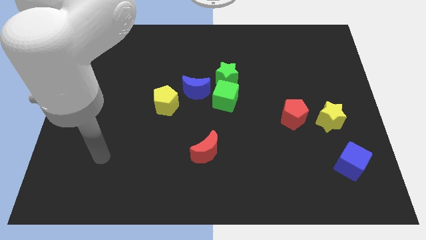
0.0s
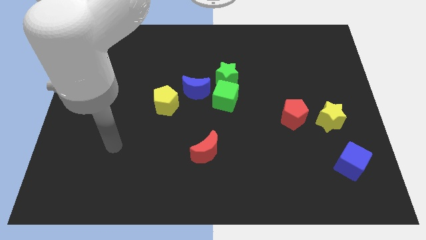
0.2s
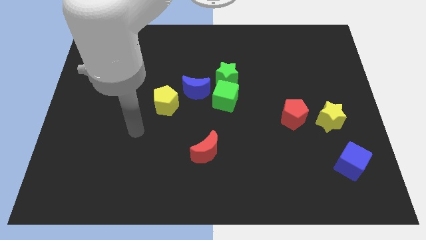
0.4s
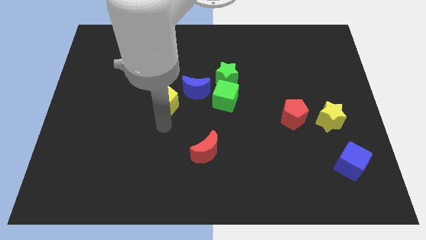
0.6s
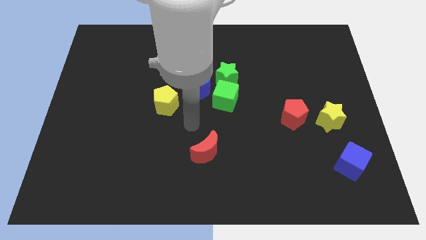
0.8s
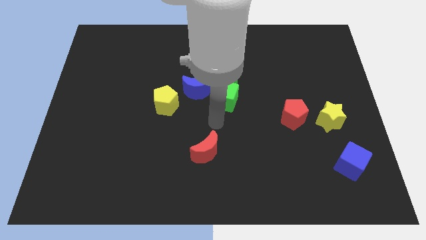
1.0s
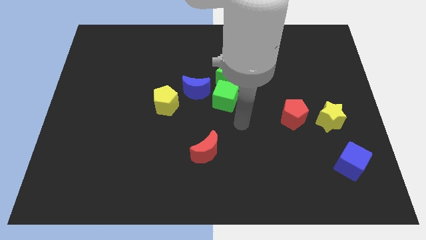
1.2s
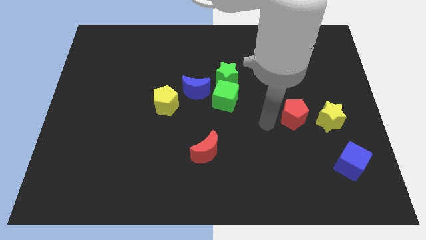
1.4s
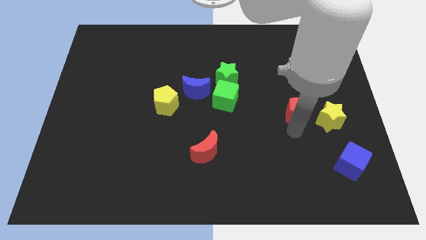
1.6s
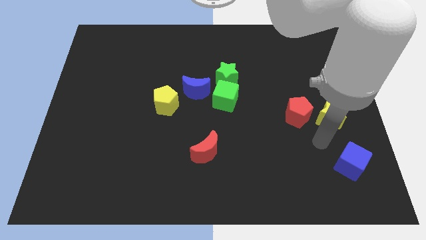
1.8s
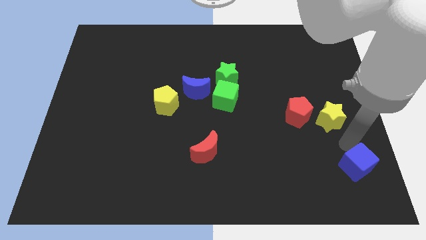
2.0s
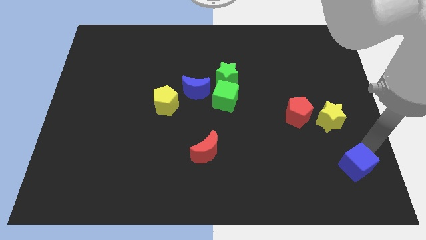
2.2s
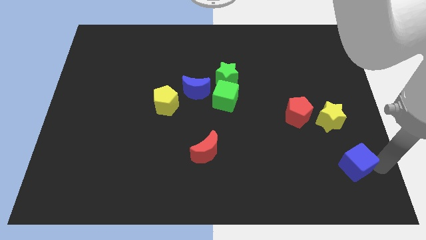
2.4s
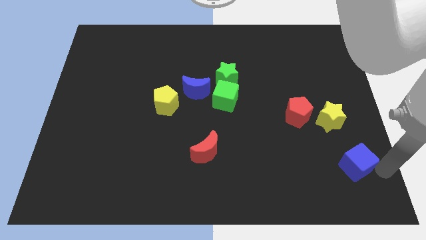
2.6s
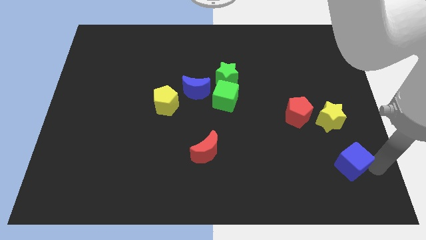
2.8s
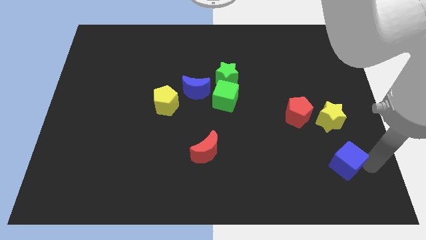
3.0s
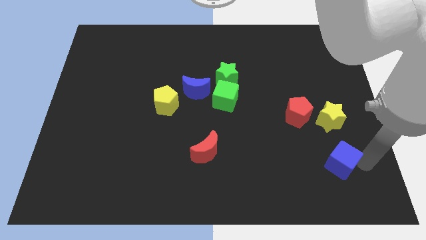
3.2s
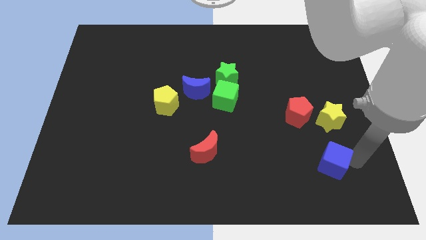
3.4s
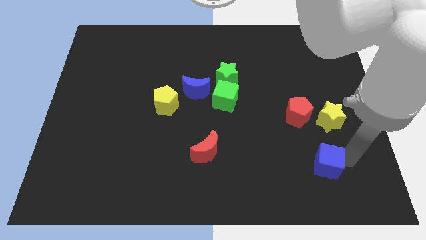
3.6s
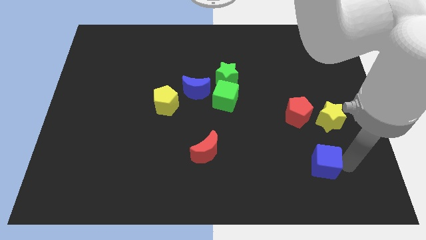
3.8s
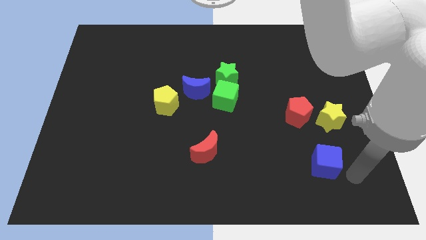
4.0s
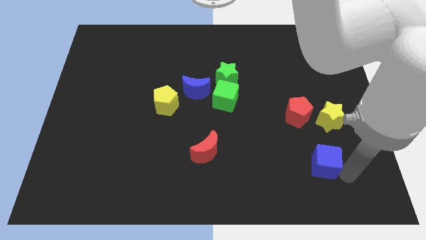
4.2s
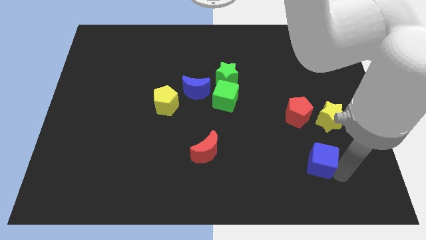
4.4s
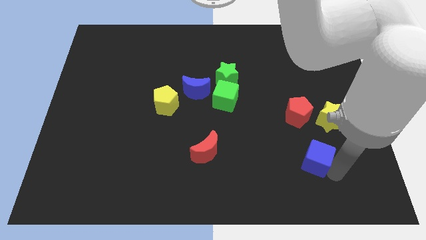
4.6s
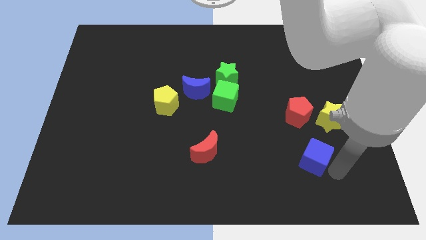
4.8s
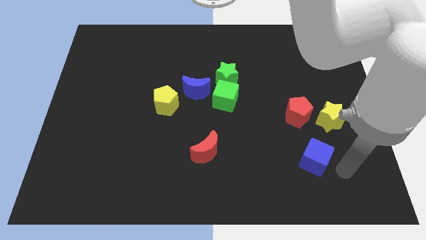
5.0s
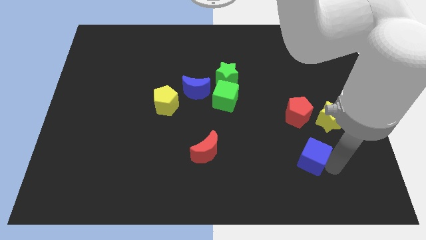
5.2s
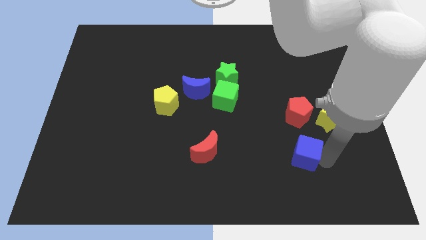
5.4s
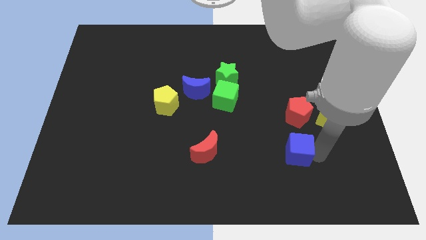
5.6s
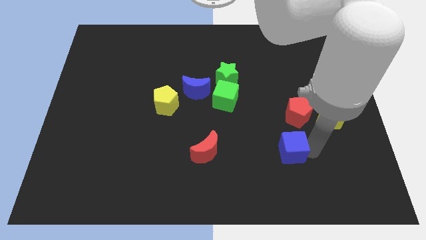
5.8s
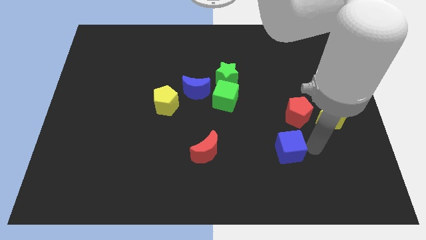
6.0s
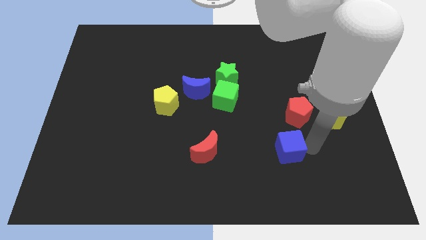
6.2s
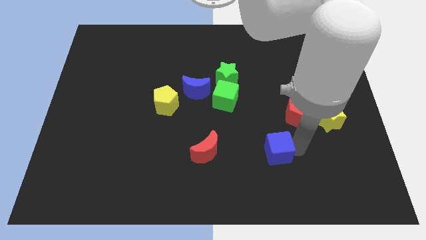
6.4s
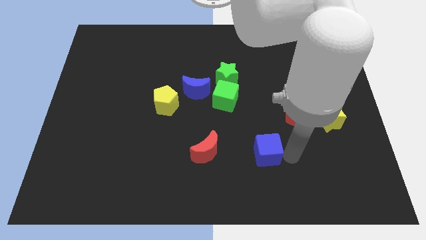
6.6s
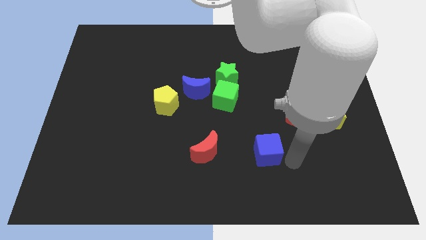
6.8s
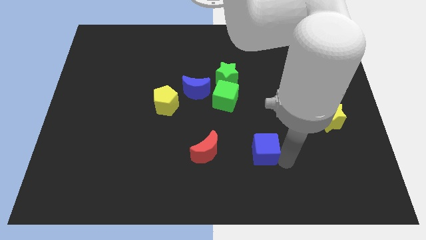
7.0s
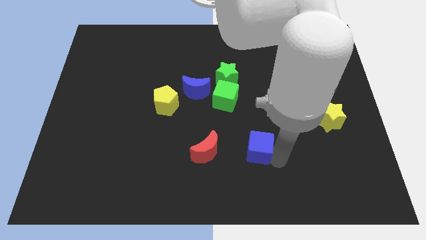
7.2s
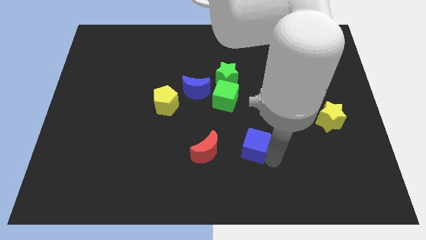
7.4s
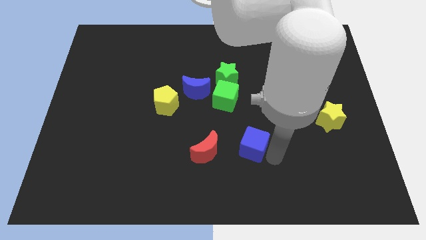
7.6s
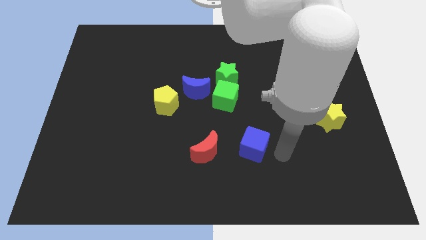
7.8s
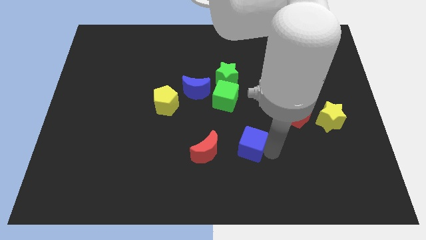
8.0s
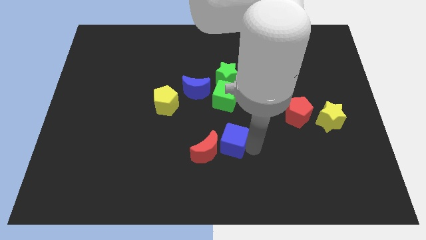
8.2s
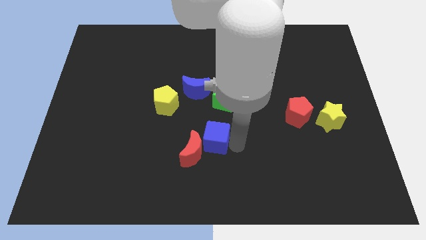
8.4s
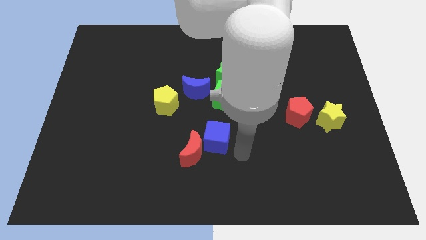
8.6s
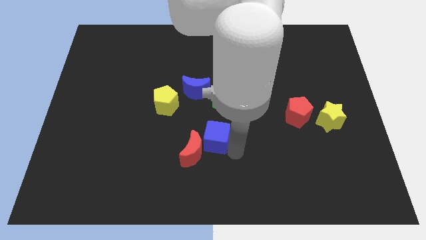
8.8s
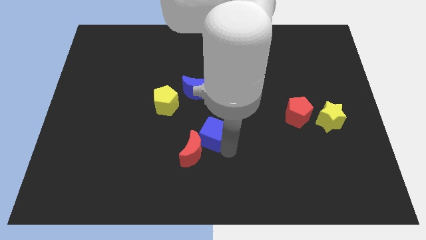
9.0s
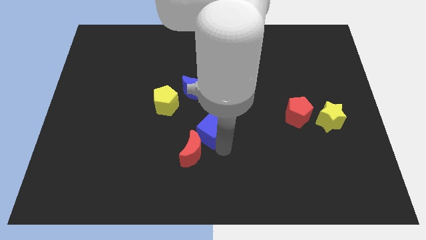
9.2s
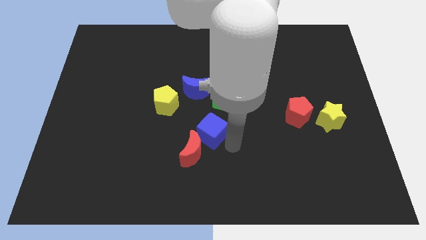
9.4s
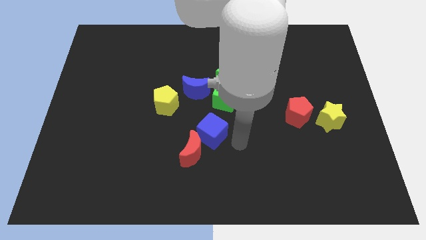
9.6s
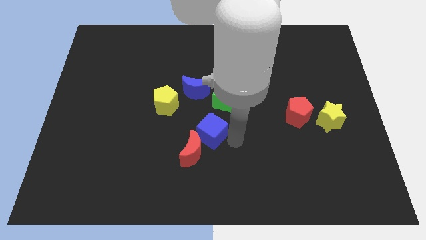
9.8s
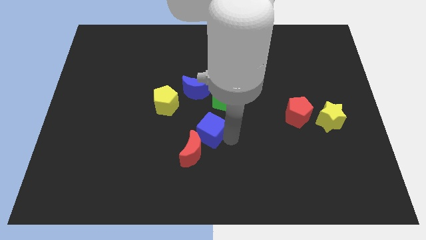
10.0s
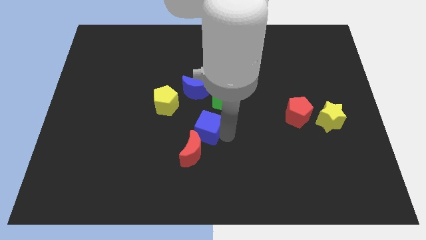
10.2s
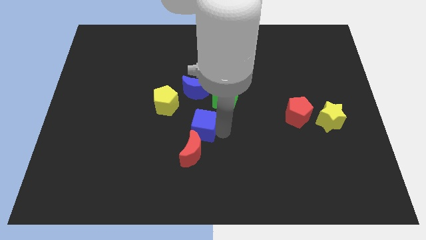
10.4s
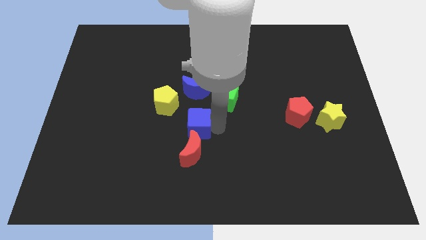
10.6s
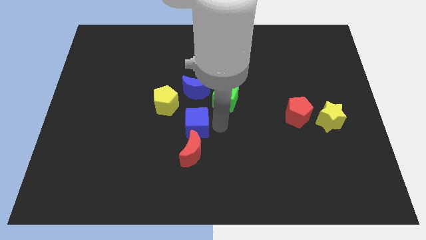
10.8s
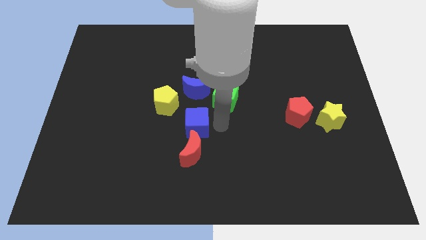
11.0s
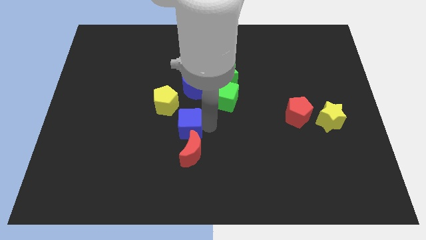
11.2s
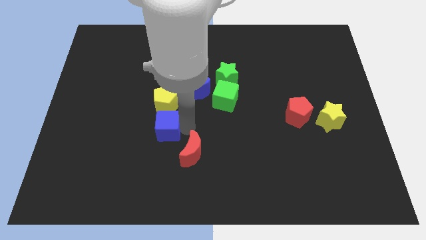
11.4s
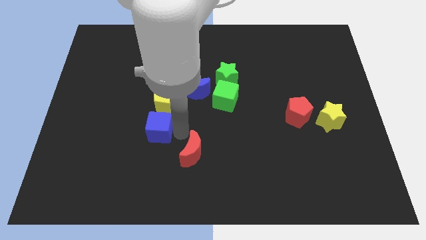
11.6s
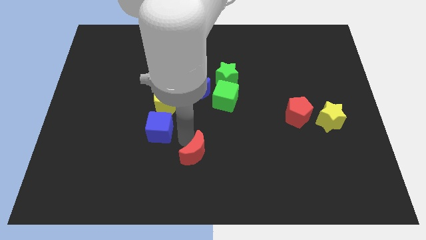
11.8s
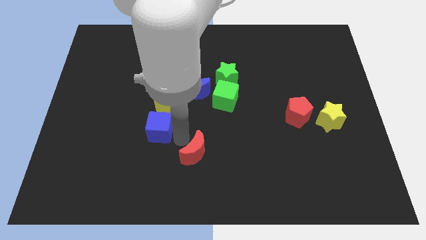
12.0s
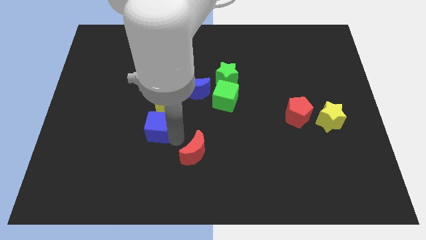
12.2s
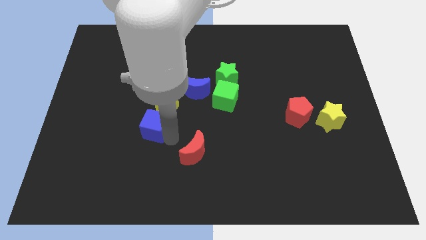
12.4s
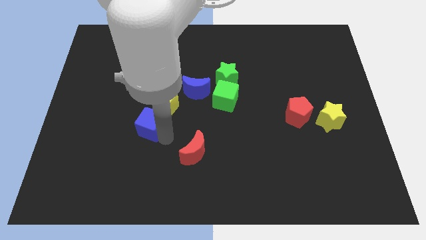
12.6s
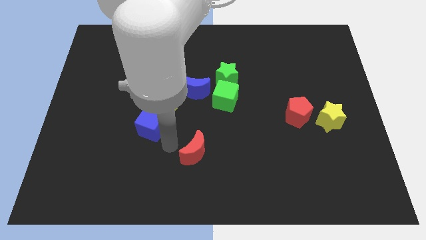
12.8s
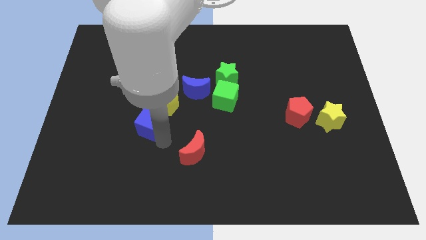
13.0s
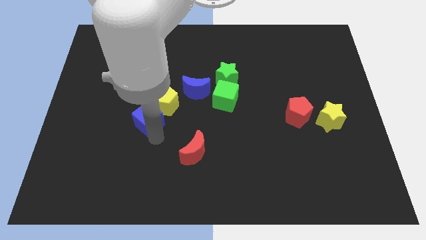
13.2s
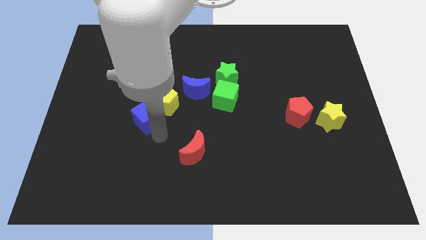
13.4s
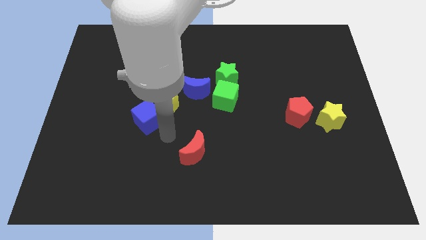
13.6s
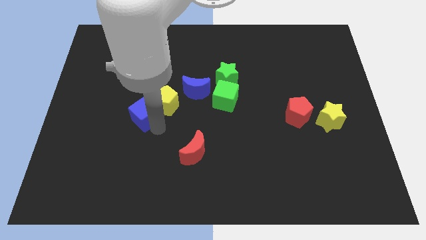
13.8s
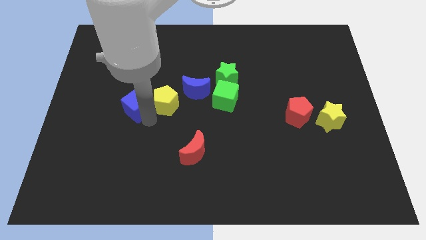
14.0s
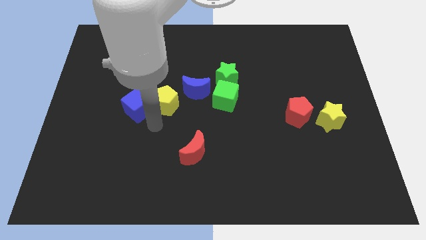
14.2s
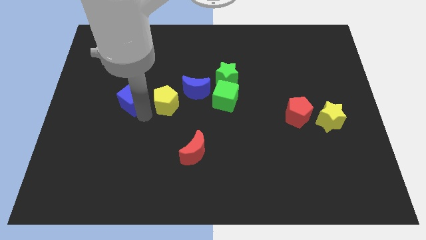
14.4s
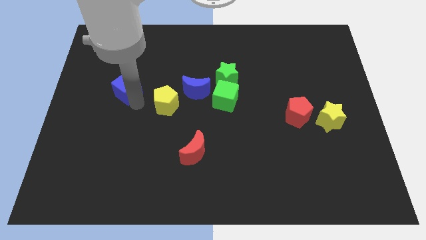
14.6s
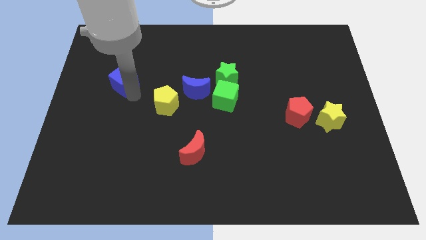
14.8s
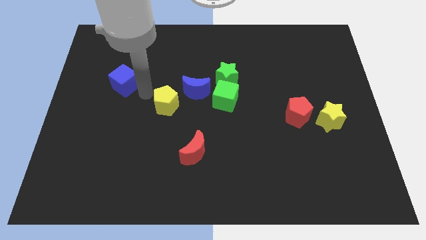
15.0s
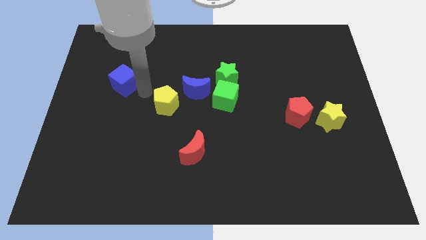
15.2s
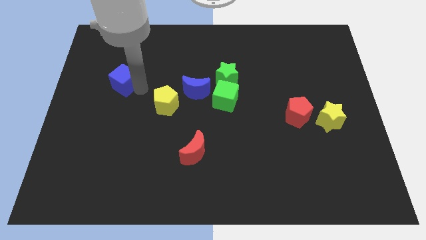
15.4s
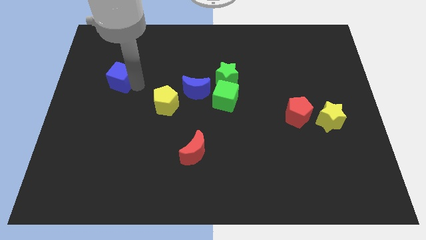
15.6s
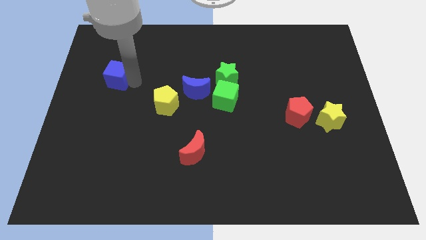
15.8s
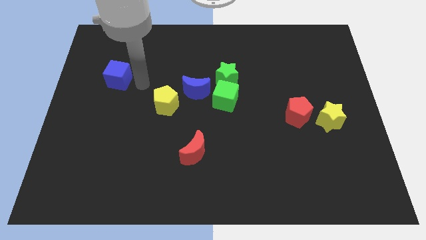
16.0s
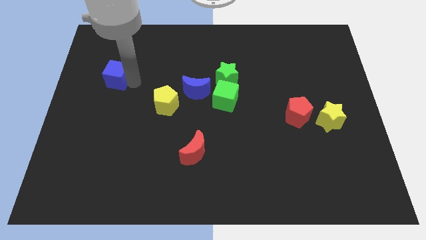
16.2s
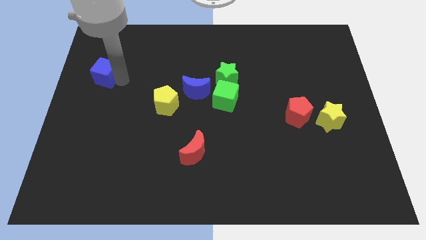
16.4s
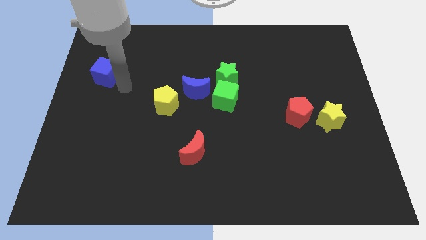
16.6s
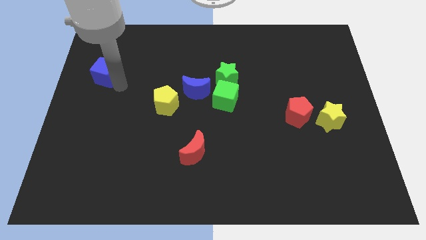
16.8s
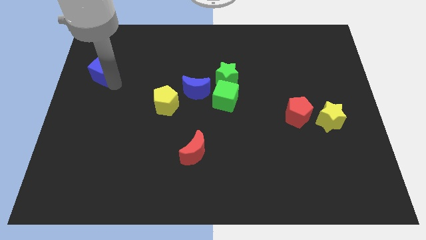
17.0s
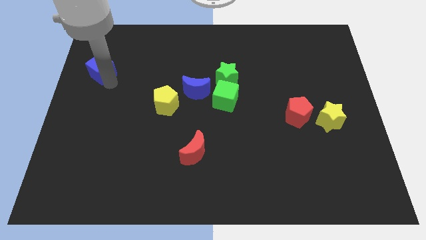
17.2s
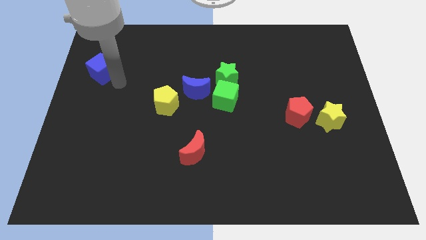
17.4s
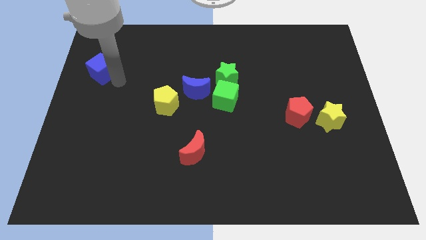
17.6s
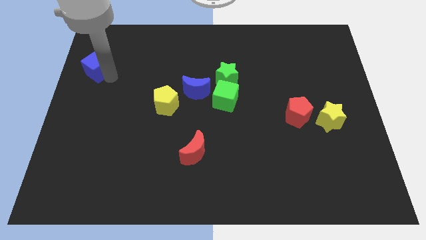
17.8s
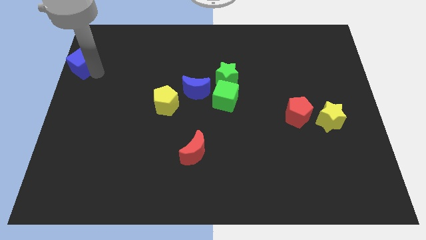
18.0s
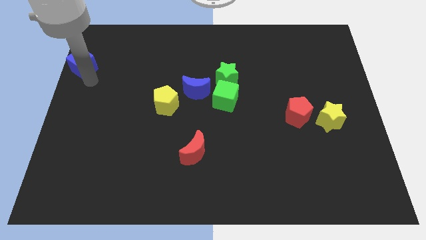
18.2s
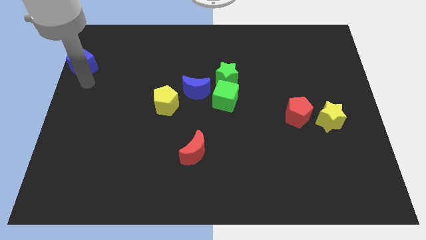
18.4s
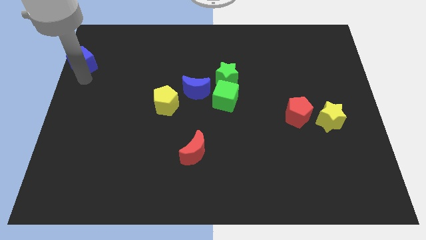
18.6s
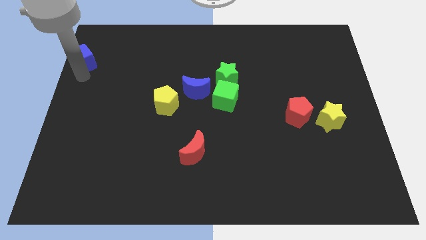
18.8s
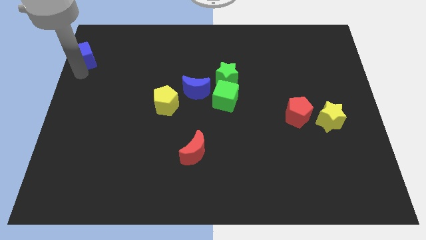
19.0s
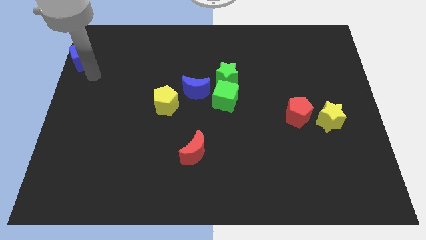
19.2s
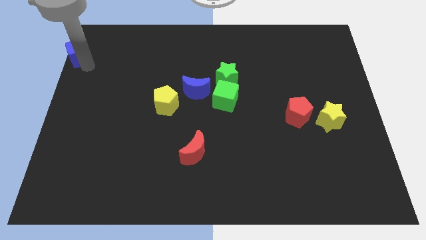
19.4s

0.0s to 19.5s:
push the blue cube to the top left corner
